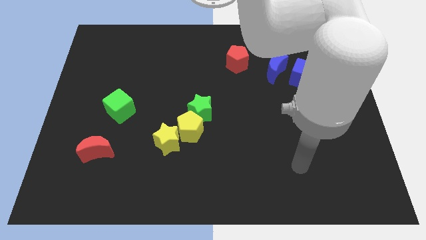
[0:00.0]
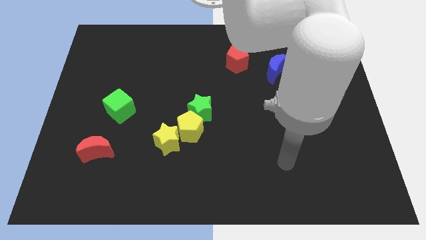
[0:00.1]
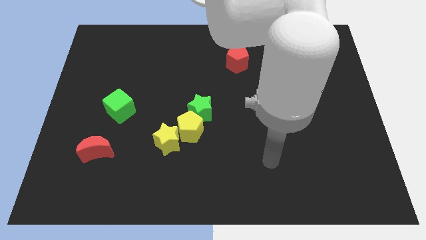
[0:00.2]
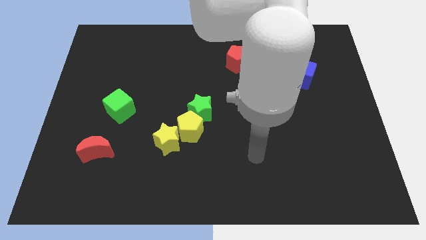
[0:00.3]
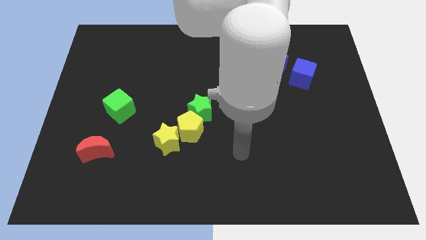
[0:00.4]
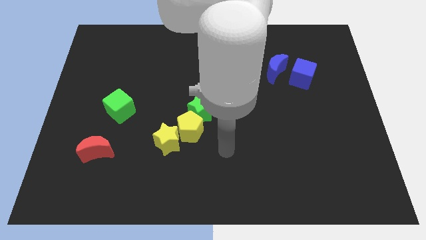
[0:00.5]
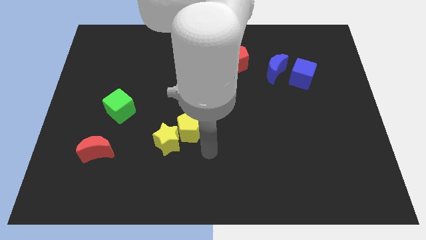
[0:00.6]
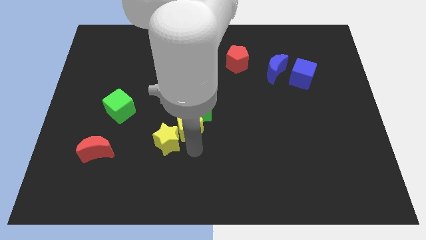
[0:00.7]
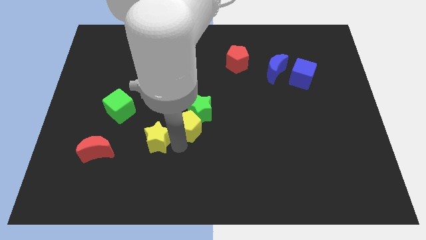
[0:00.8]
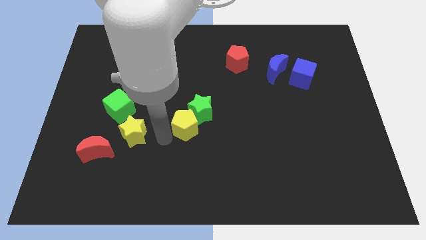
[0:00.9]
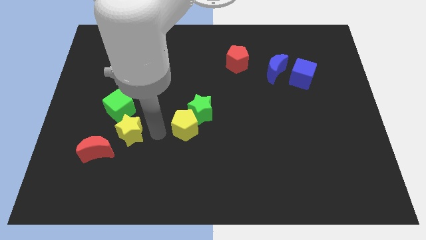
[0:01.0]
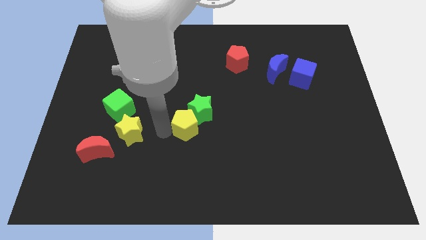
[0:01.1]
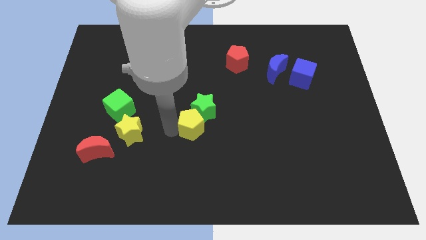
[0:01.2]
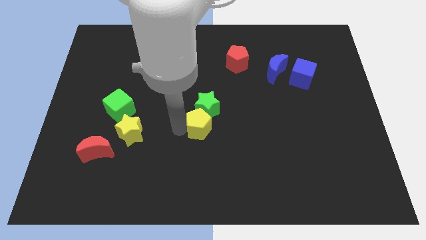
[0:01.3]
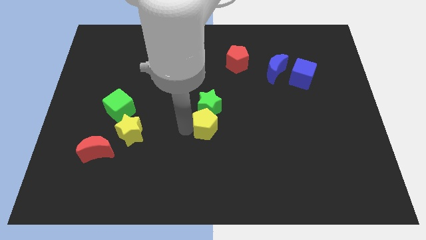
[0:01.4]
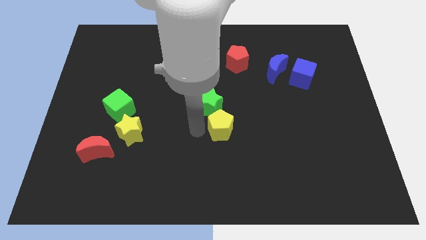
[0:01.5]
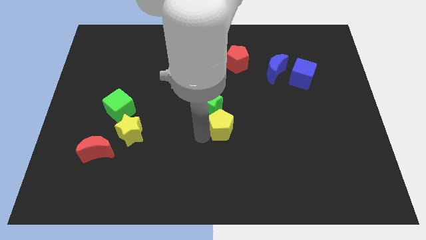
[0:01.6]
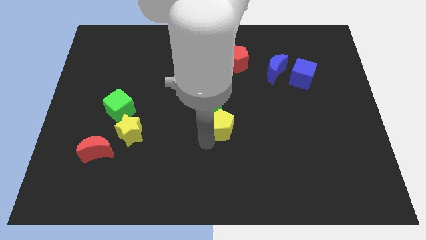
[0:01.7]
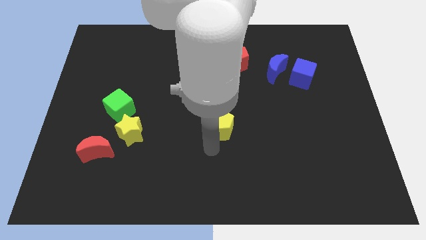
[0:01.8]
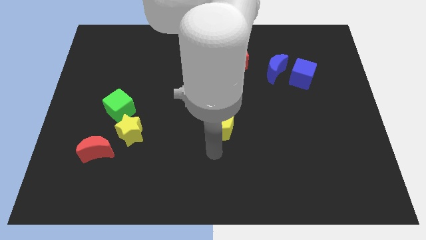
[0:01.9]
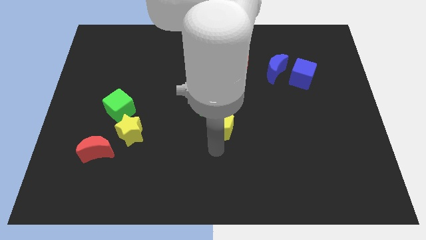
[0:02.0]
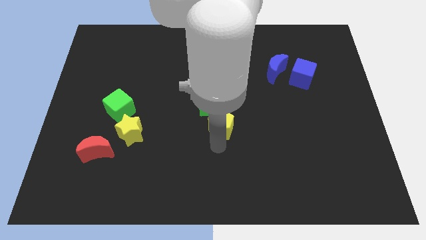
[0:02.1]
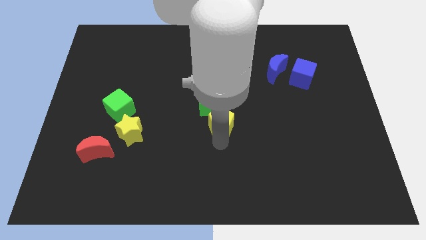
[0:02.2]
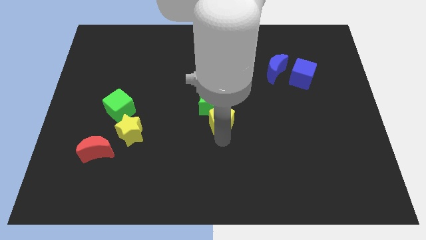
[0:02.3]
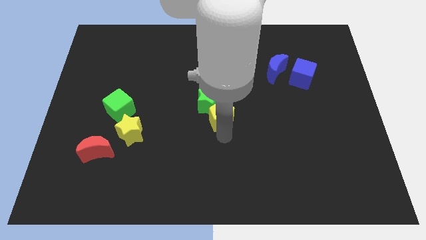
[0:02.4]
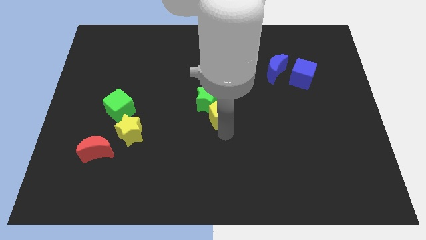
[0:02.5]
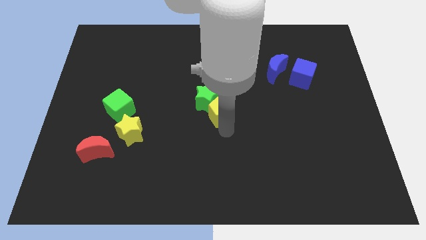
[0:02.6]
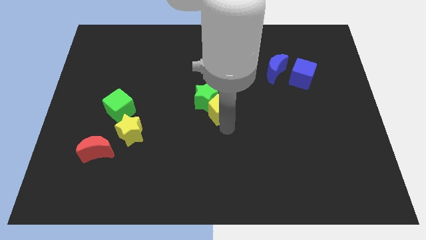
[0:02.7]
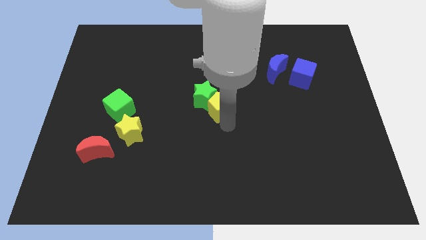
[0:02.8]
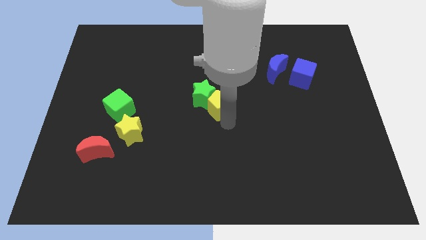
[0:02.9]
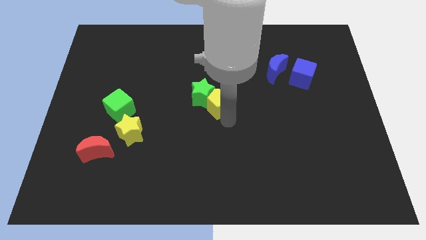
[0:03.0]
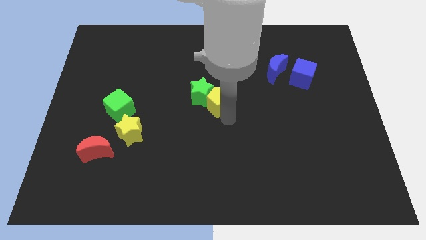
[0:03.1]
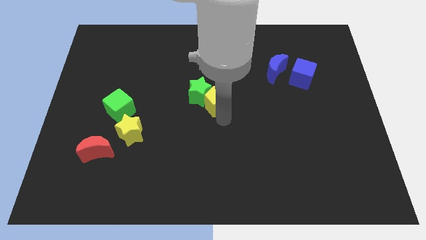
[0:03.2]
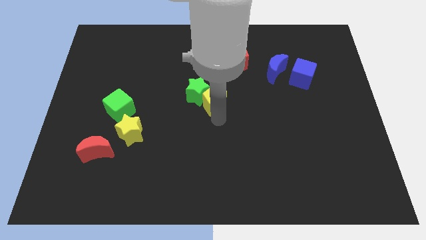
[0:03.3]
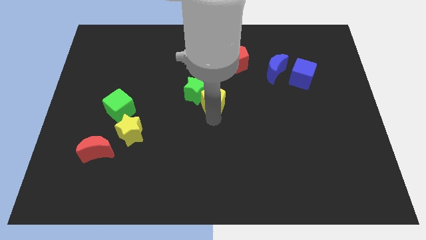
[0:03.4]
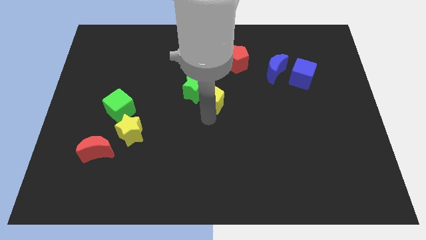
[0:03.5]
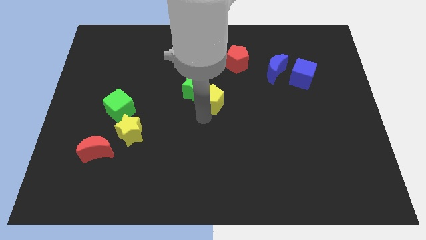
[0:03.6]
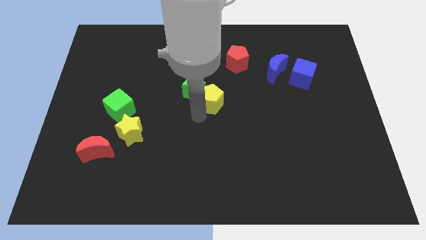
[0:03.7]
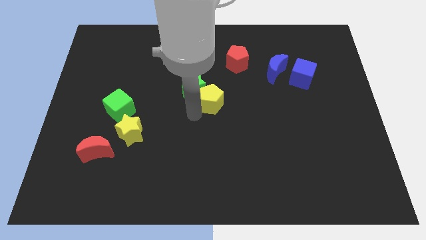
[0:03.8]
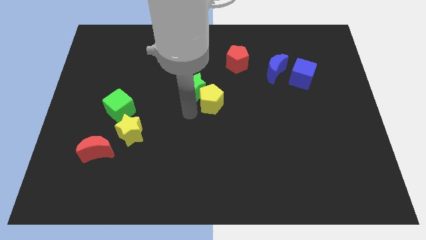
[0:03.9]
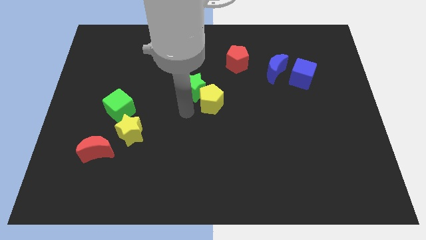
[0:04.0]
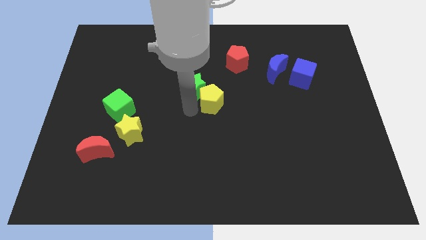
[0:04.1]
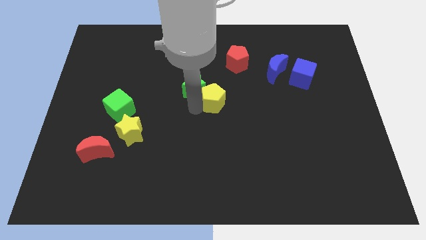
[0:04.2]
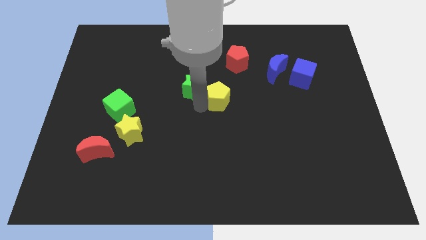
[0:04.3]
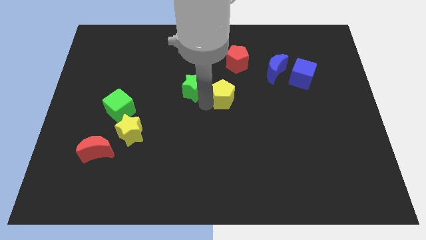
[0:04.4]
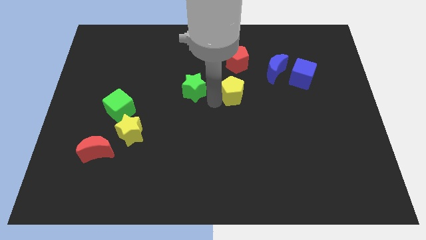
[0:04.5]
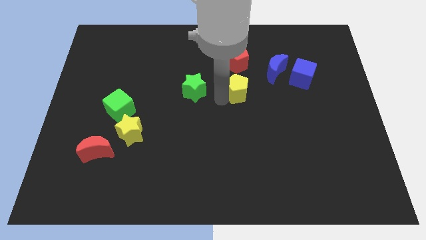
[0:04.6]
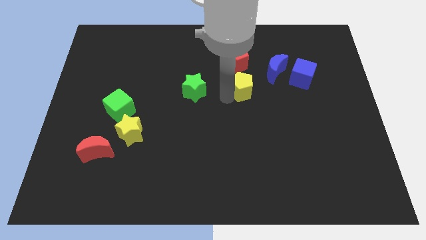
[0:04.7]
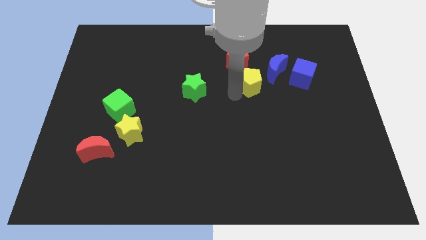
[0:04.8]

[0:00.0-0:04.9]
slide the yellow pentagon up and then right

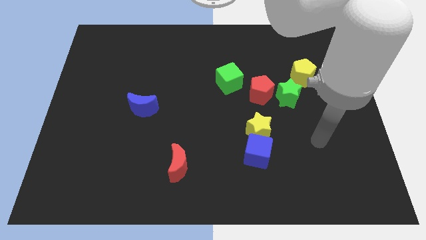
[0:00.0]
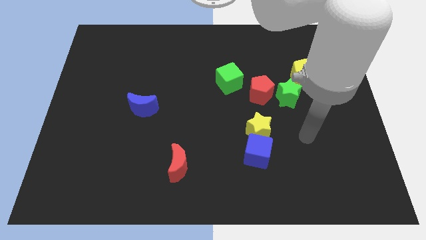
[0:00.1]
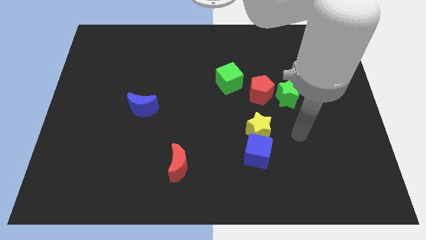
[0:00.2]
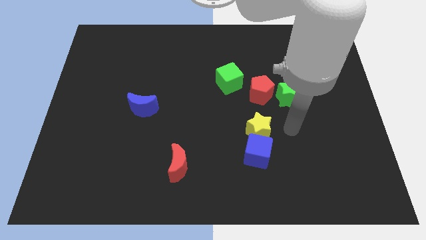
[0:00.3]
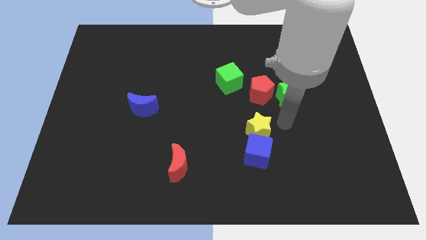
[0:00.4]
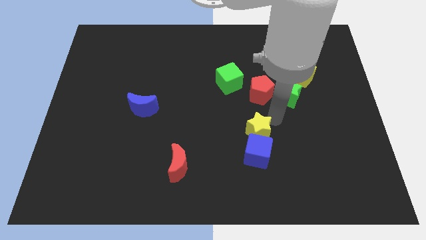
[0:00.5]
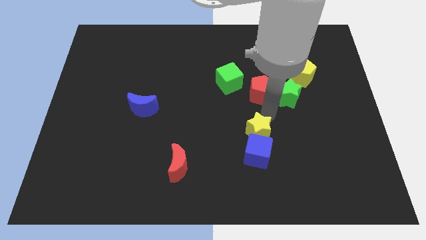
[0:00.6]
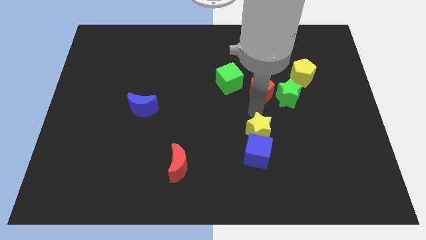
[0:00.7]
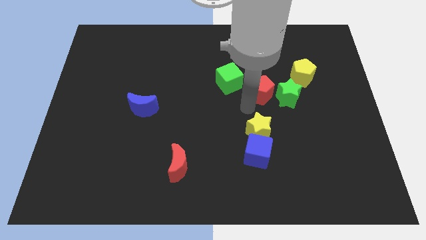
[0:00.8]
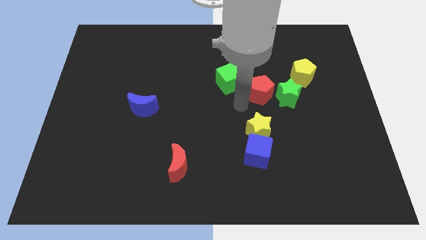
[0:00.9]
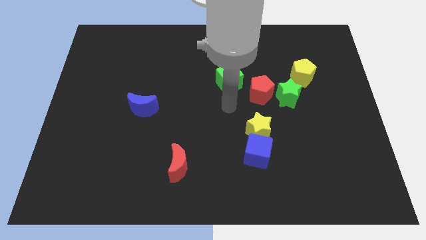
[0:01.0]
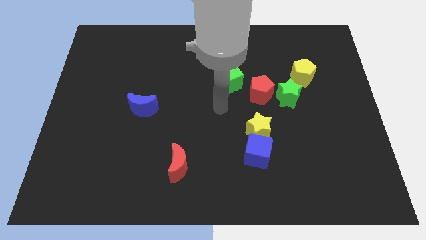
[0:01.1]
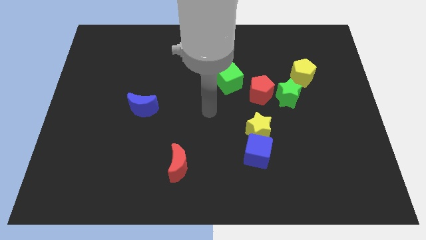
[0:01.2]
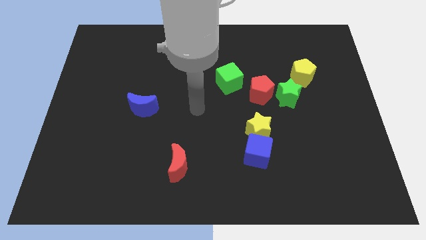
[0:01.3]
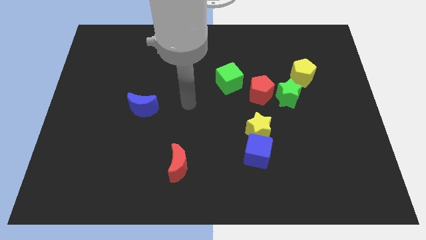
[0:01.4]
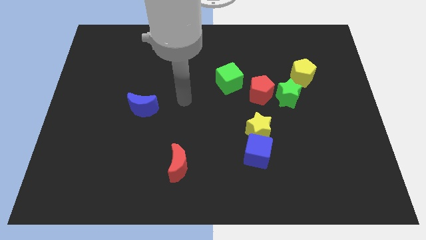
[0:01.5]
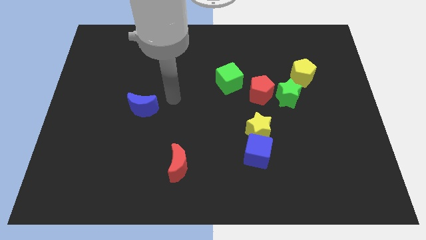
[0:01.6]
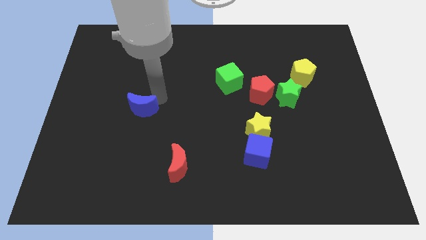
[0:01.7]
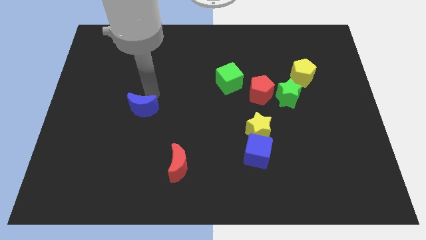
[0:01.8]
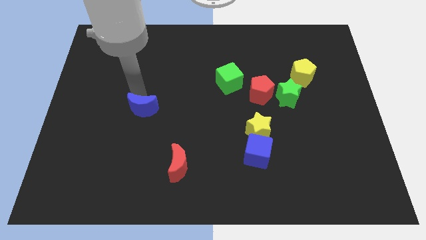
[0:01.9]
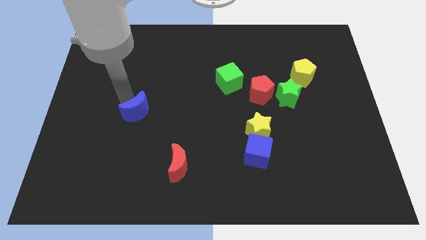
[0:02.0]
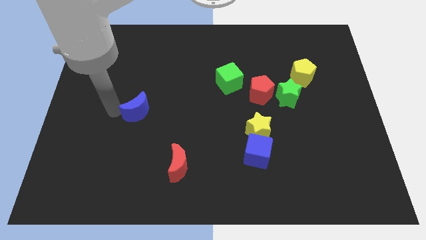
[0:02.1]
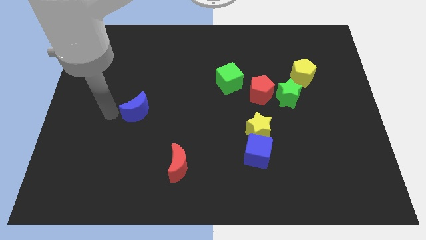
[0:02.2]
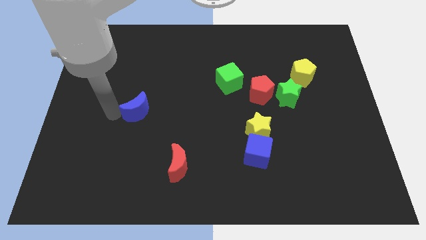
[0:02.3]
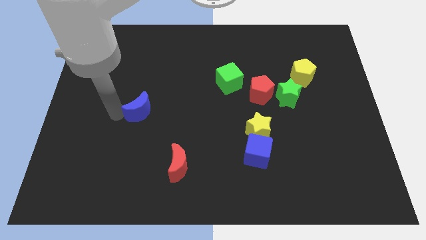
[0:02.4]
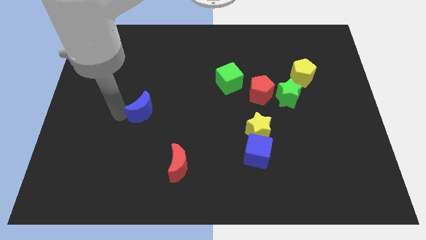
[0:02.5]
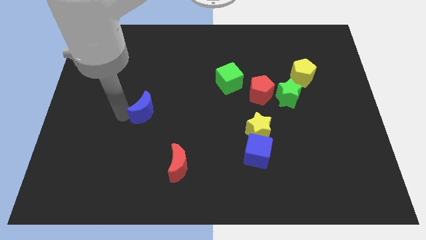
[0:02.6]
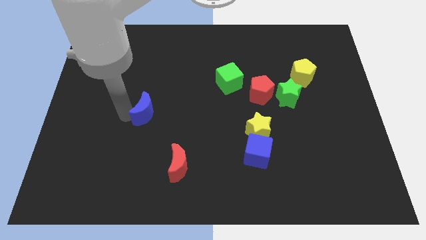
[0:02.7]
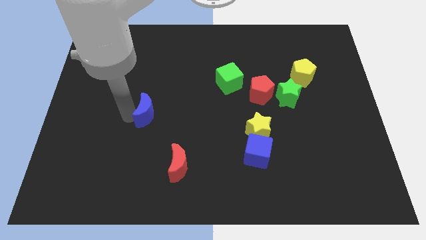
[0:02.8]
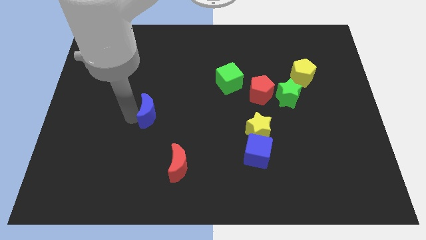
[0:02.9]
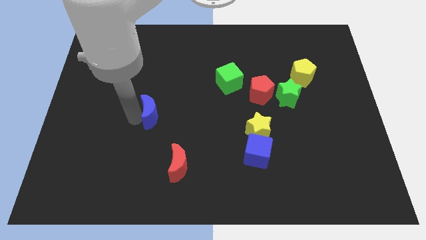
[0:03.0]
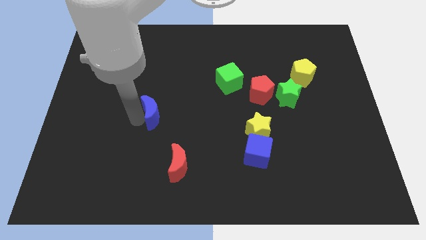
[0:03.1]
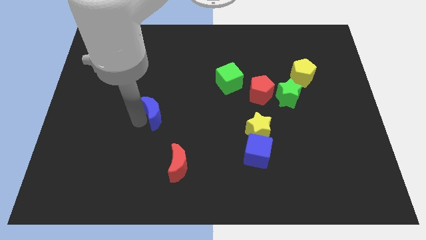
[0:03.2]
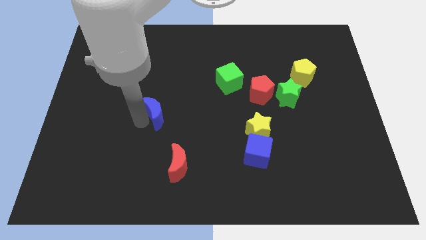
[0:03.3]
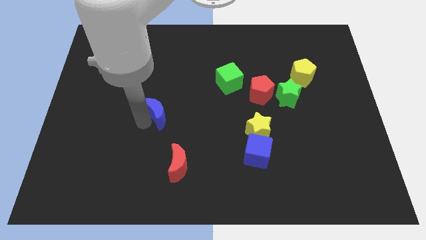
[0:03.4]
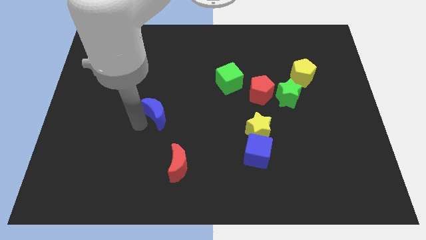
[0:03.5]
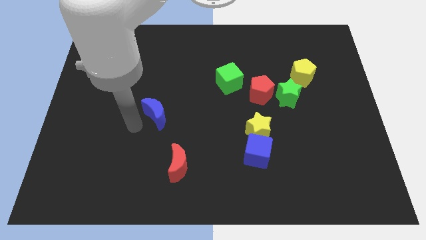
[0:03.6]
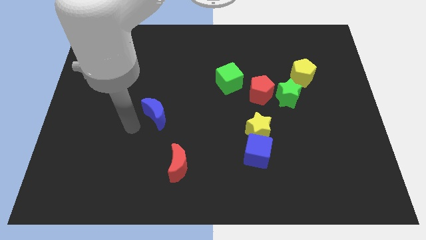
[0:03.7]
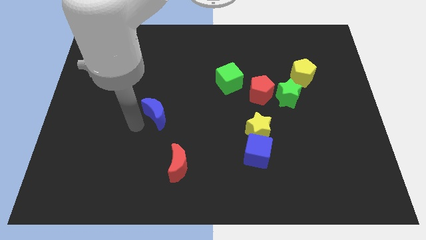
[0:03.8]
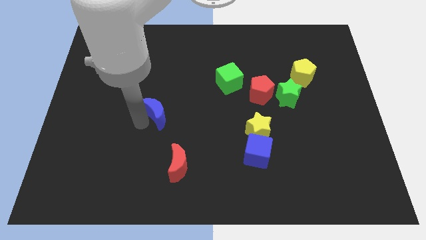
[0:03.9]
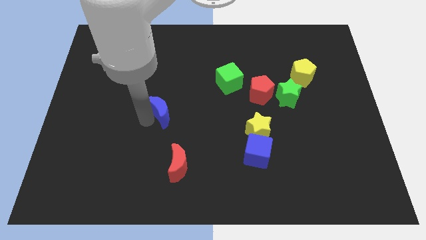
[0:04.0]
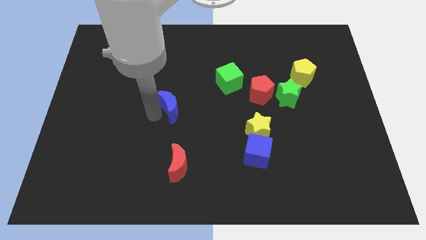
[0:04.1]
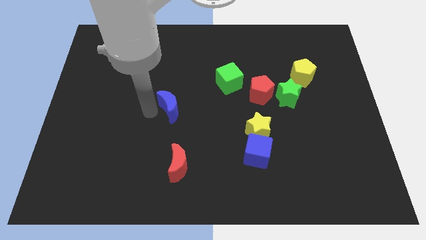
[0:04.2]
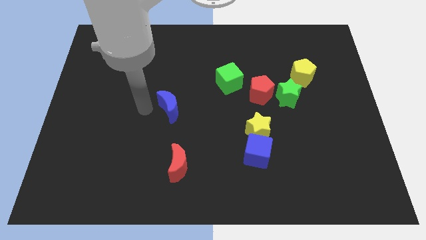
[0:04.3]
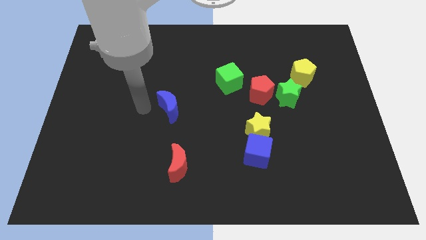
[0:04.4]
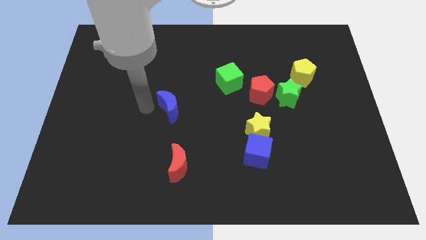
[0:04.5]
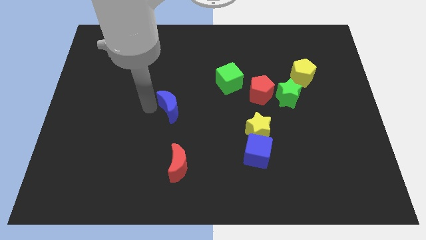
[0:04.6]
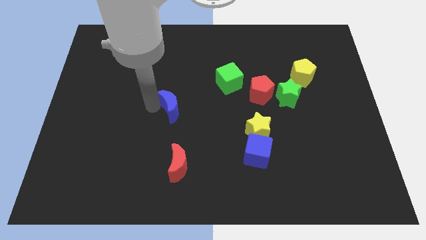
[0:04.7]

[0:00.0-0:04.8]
slightly move the blue moon right
